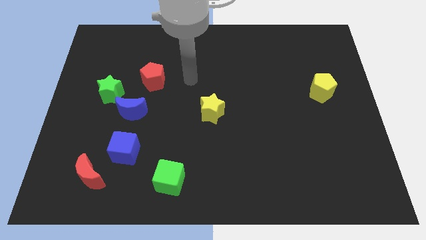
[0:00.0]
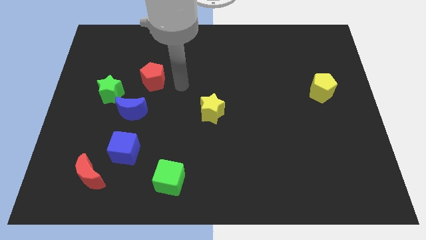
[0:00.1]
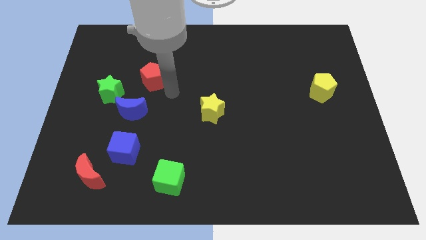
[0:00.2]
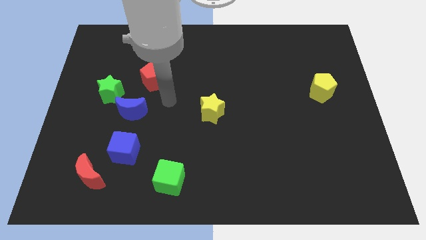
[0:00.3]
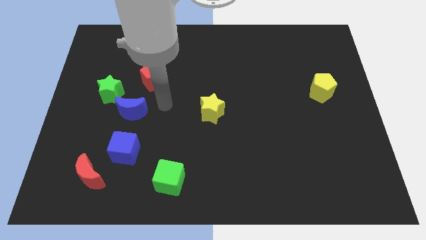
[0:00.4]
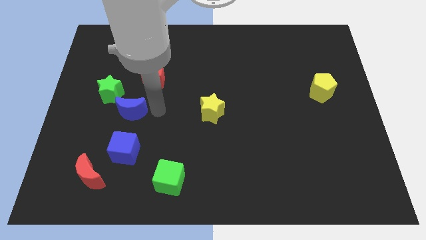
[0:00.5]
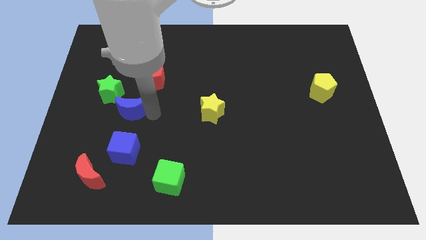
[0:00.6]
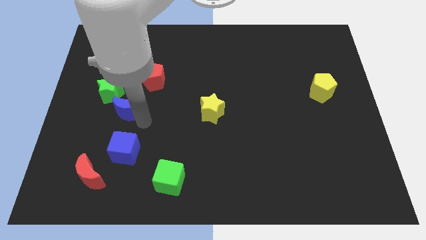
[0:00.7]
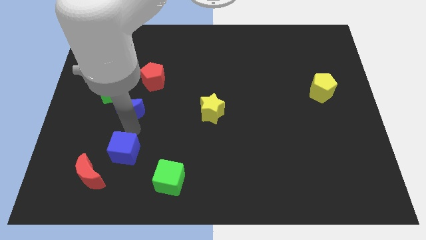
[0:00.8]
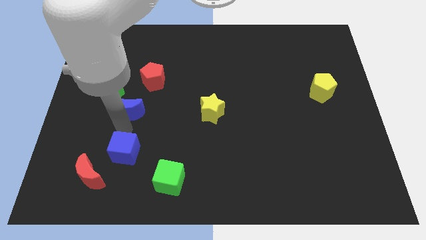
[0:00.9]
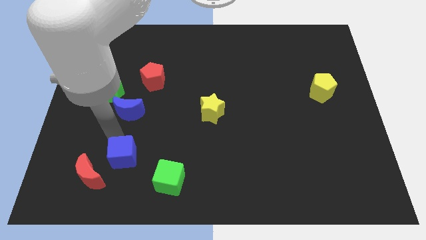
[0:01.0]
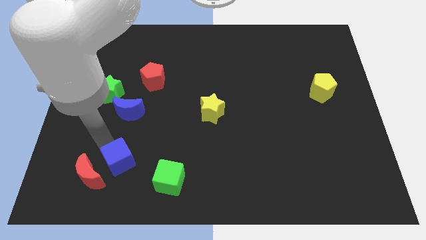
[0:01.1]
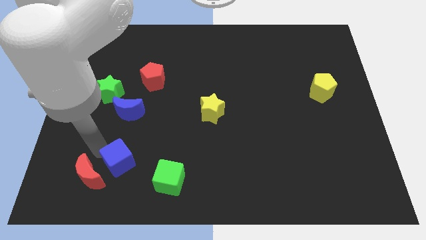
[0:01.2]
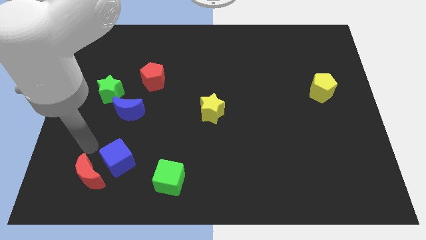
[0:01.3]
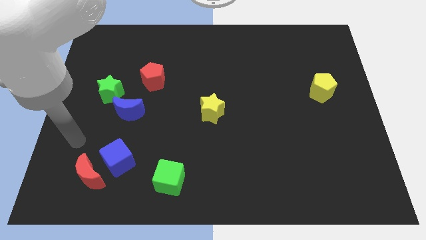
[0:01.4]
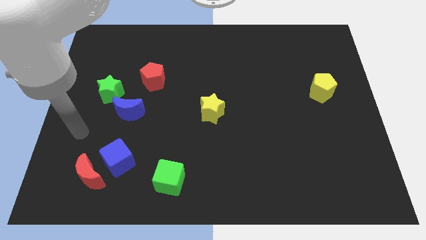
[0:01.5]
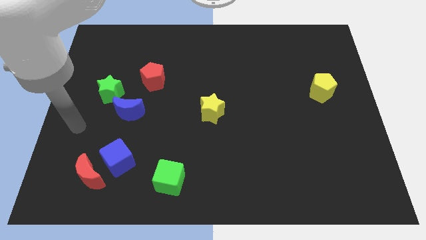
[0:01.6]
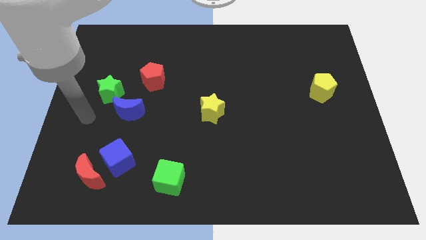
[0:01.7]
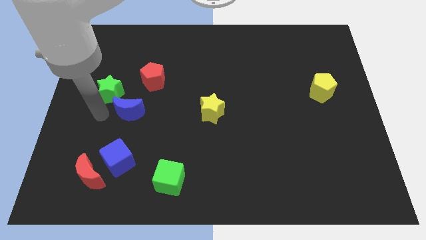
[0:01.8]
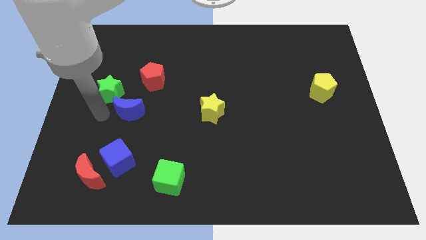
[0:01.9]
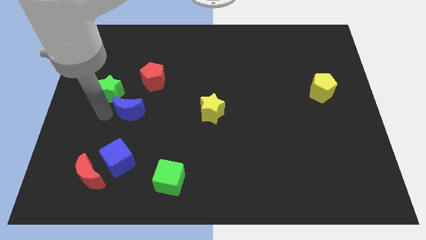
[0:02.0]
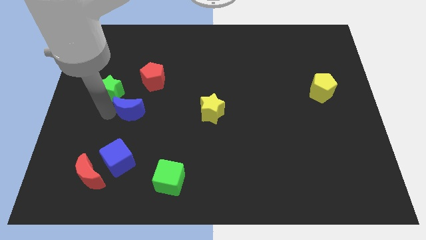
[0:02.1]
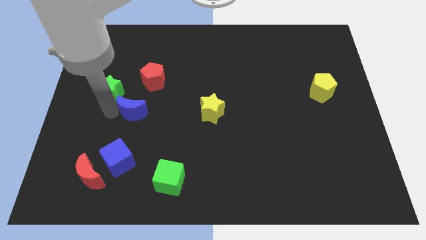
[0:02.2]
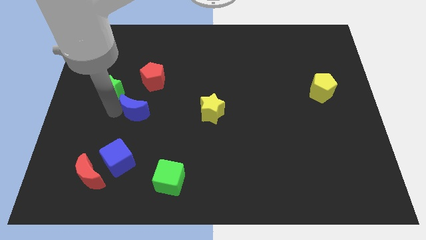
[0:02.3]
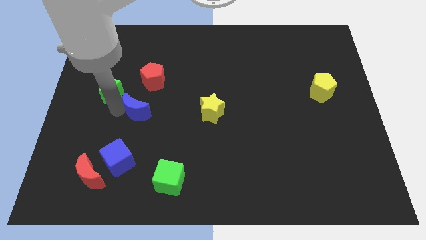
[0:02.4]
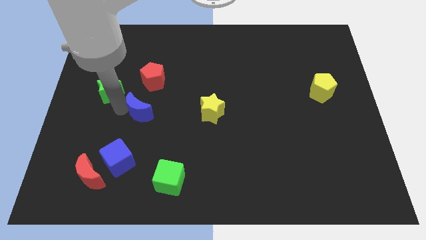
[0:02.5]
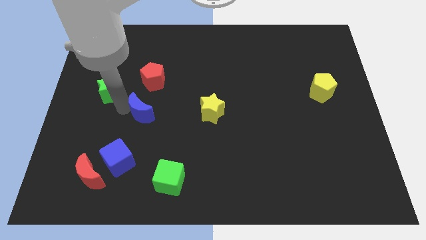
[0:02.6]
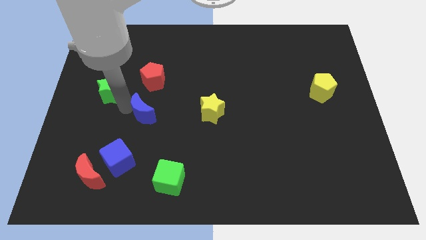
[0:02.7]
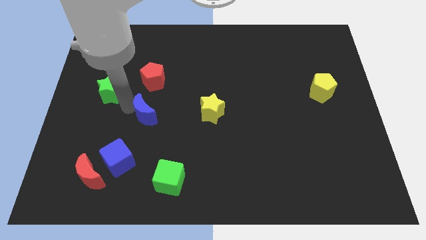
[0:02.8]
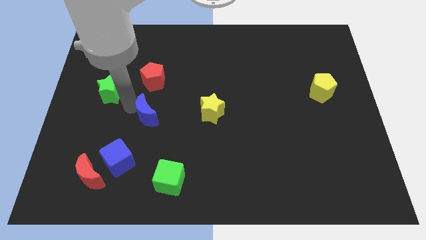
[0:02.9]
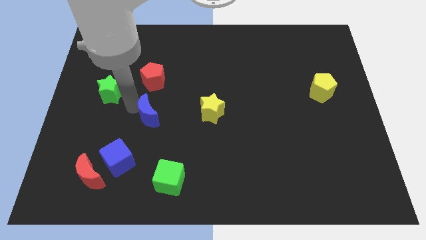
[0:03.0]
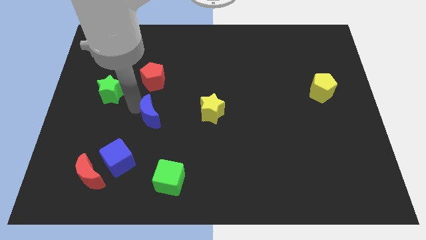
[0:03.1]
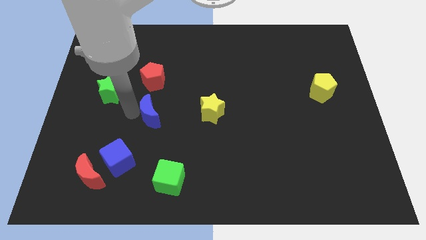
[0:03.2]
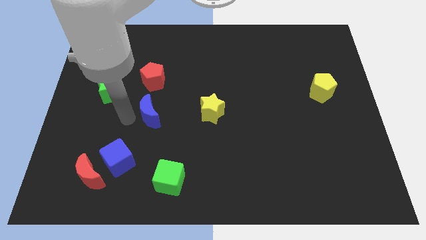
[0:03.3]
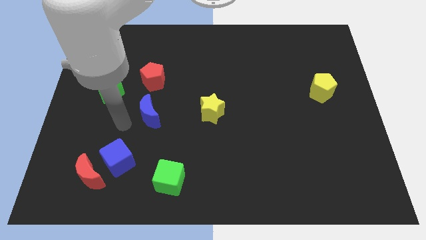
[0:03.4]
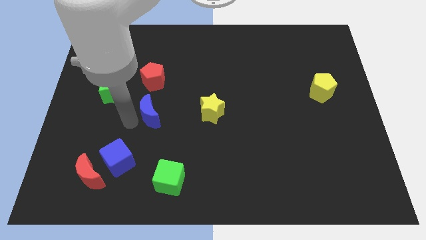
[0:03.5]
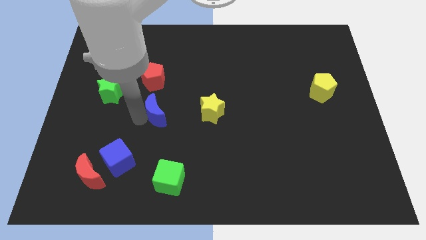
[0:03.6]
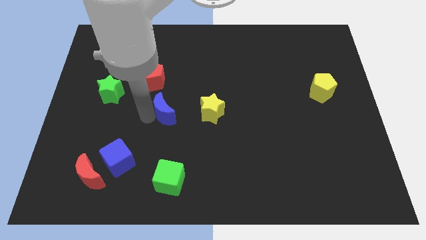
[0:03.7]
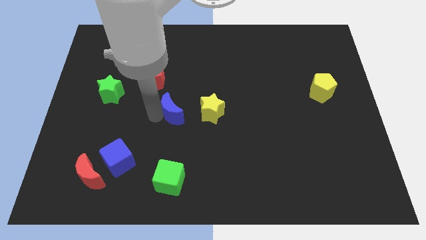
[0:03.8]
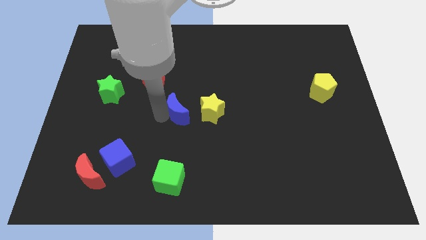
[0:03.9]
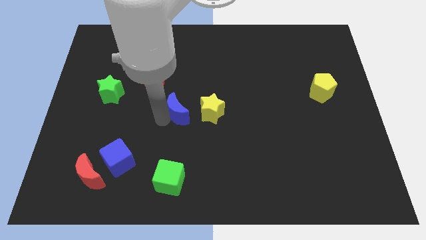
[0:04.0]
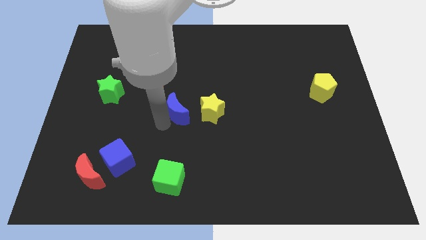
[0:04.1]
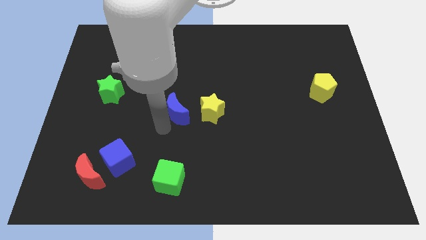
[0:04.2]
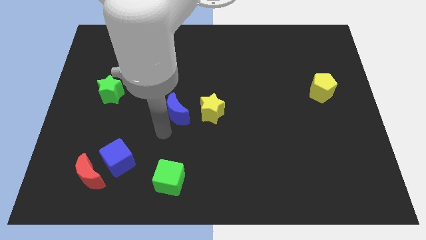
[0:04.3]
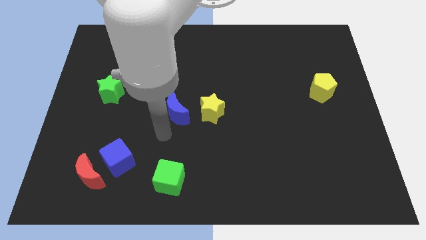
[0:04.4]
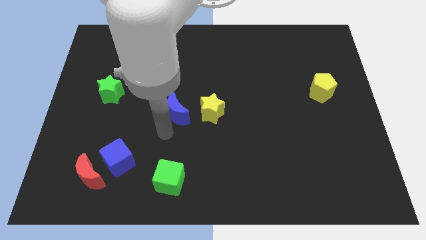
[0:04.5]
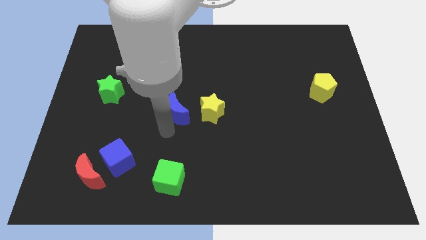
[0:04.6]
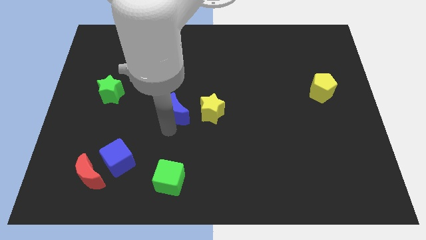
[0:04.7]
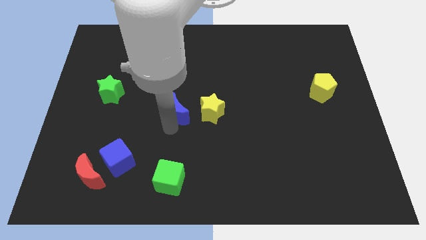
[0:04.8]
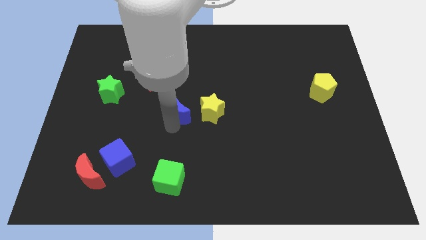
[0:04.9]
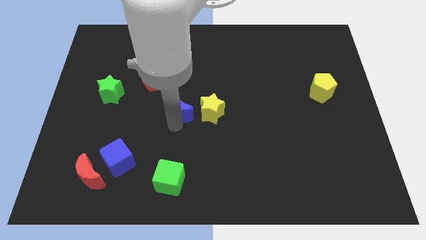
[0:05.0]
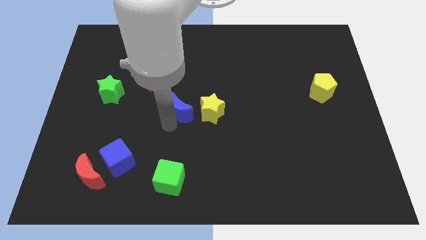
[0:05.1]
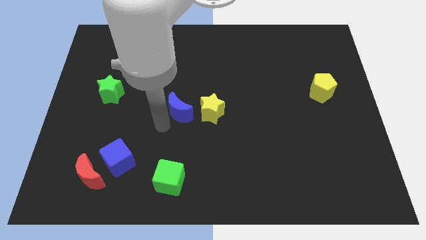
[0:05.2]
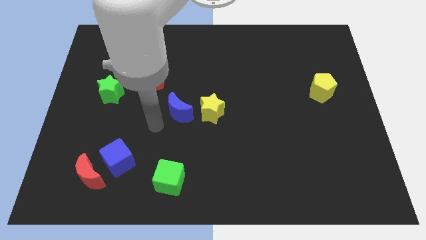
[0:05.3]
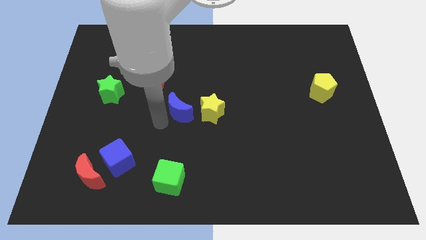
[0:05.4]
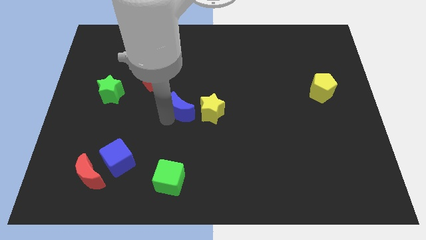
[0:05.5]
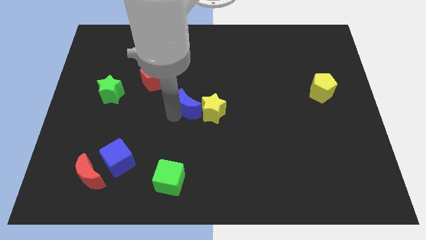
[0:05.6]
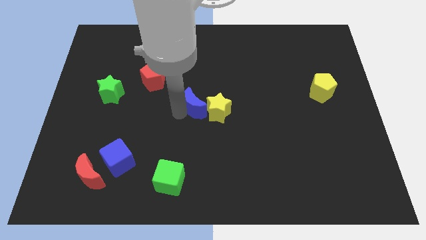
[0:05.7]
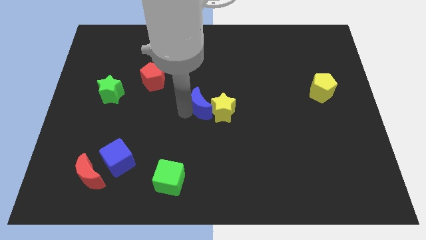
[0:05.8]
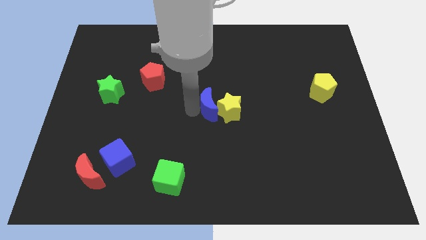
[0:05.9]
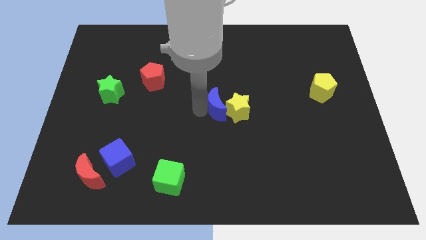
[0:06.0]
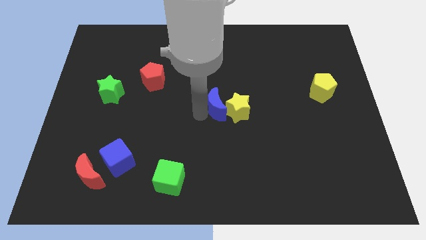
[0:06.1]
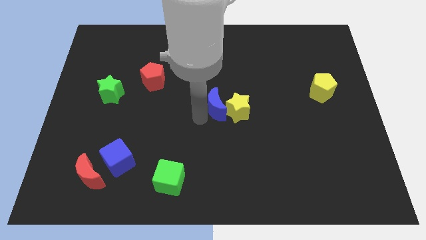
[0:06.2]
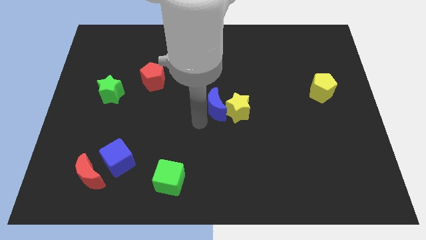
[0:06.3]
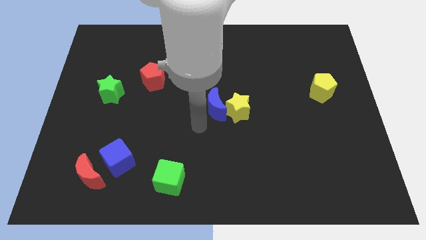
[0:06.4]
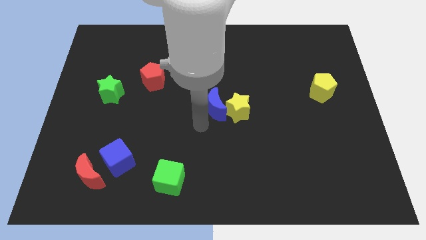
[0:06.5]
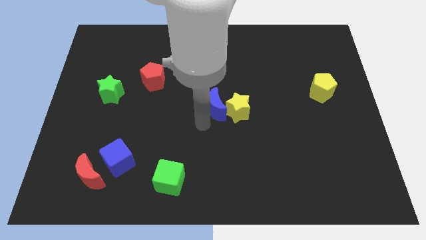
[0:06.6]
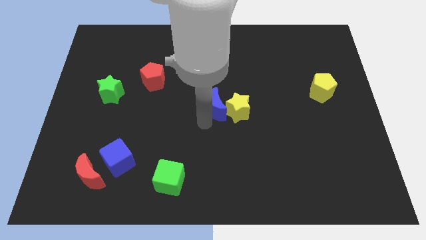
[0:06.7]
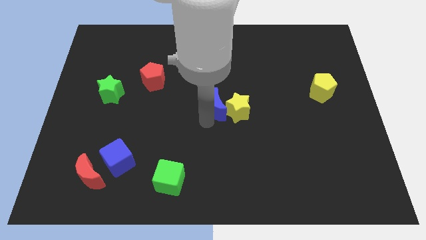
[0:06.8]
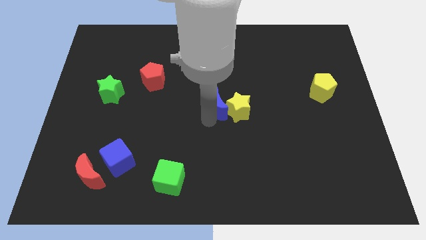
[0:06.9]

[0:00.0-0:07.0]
move the blue moon right

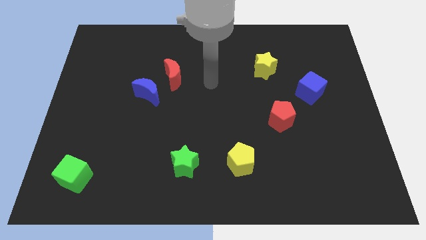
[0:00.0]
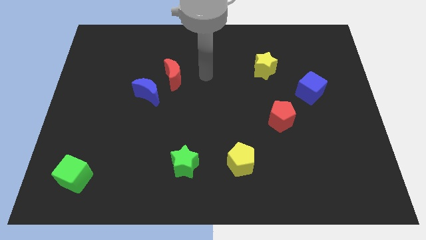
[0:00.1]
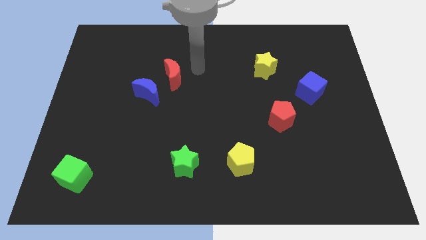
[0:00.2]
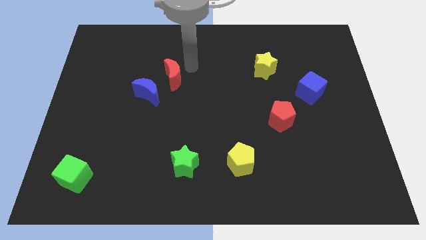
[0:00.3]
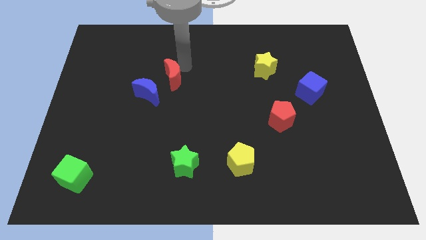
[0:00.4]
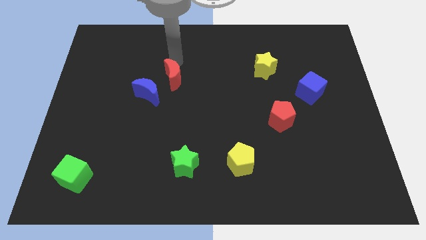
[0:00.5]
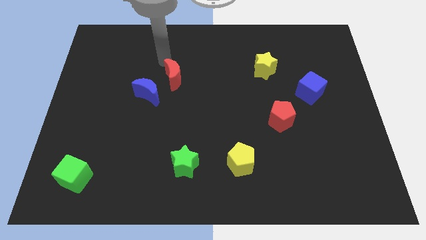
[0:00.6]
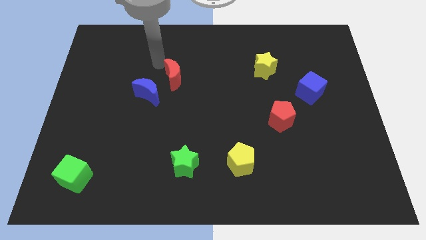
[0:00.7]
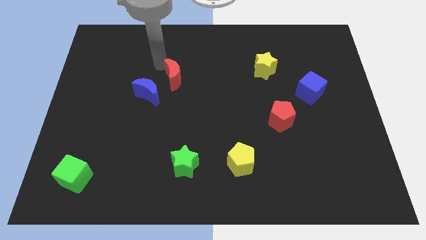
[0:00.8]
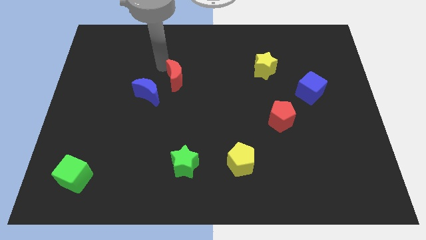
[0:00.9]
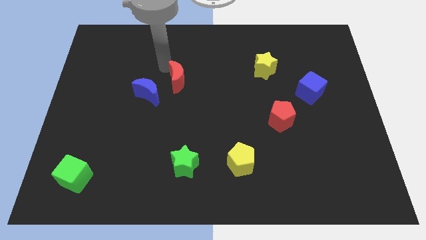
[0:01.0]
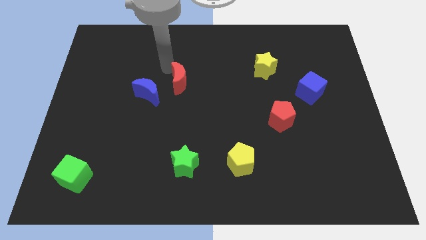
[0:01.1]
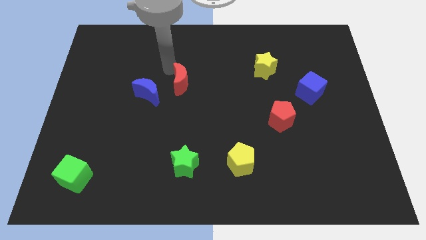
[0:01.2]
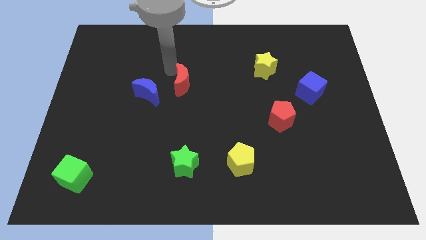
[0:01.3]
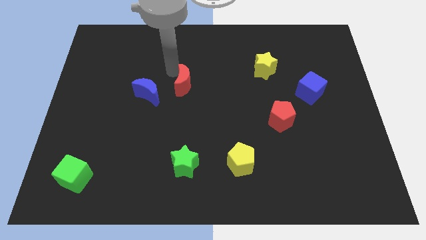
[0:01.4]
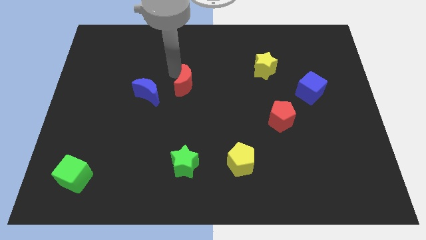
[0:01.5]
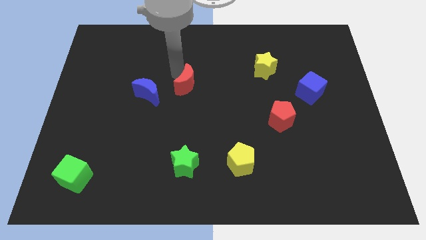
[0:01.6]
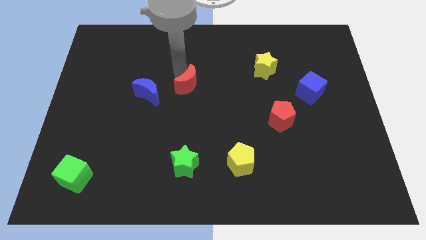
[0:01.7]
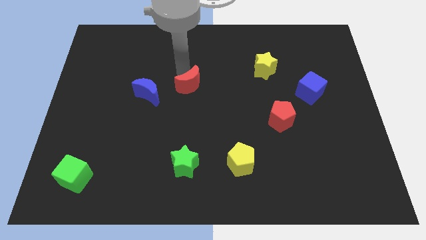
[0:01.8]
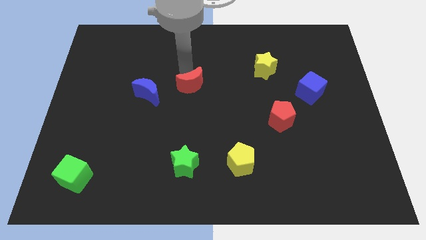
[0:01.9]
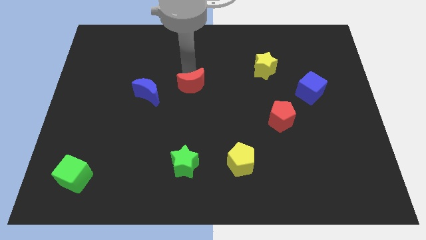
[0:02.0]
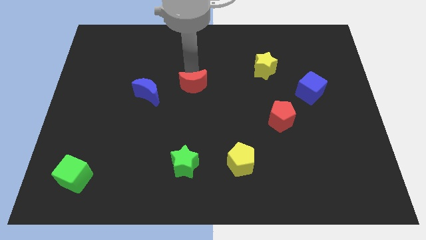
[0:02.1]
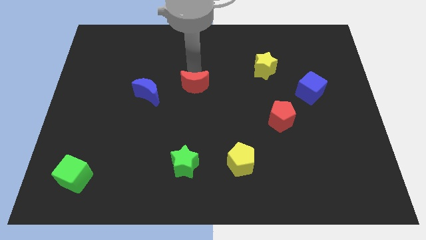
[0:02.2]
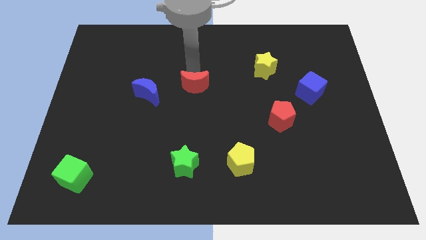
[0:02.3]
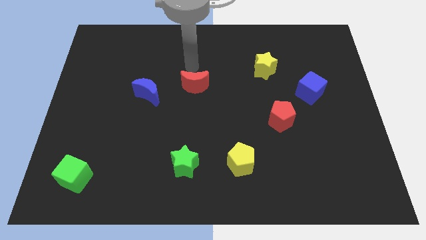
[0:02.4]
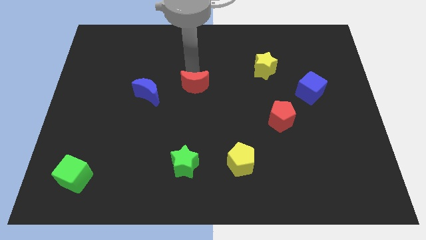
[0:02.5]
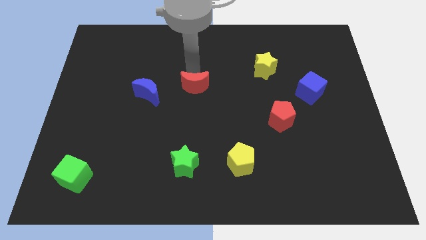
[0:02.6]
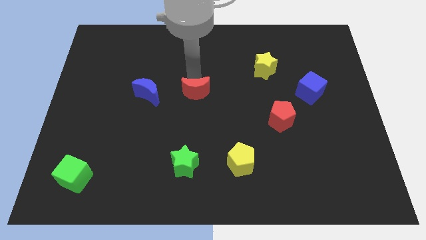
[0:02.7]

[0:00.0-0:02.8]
move the red moon somewhat down and right diagonally
